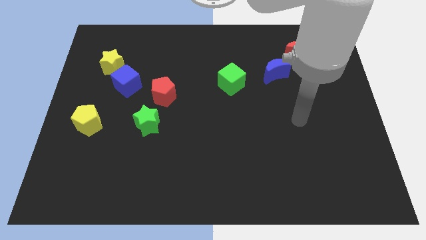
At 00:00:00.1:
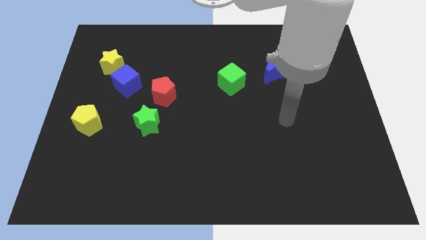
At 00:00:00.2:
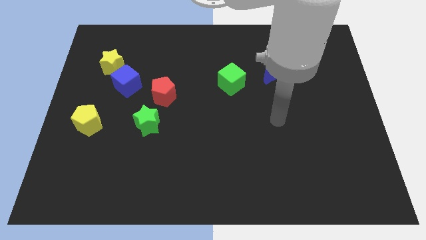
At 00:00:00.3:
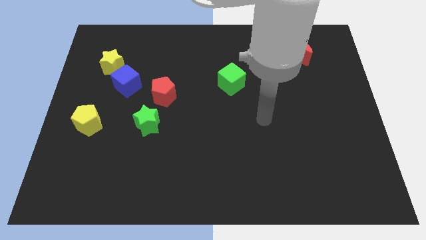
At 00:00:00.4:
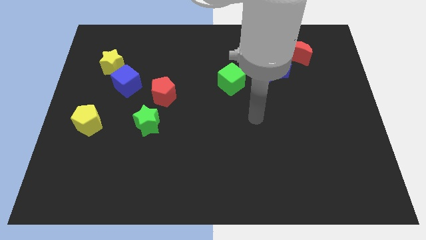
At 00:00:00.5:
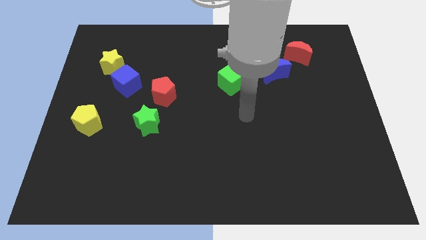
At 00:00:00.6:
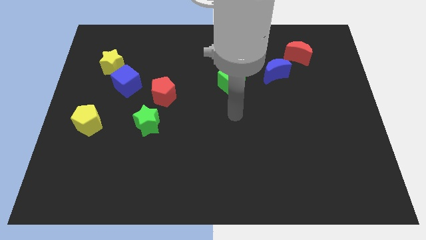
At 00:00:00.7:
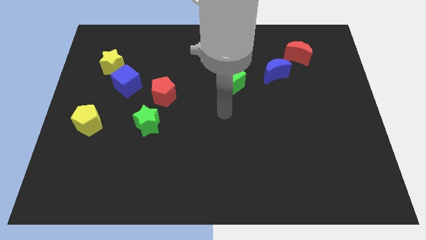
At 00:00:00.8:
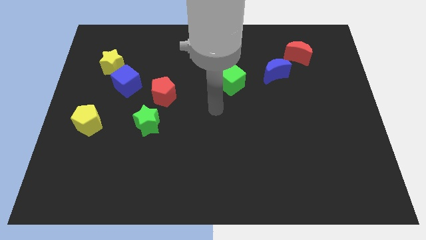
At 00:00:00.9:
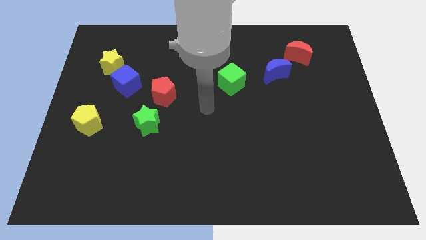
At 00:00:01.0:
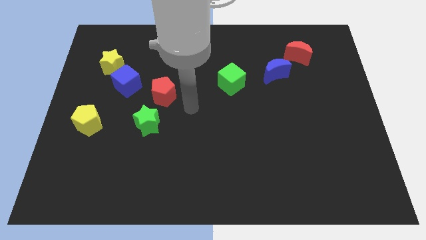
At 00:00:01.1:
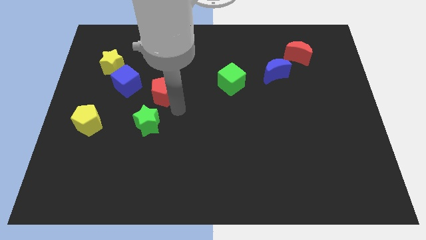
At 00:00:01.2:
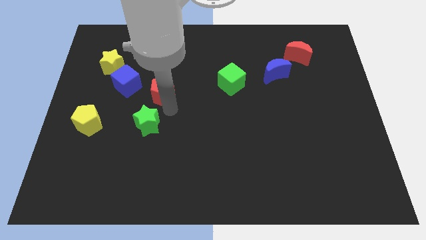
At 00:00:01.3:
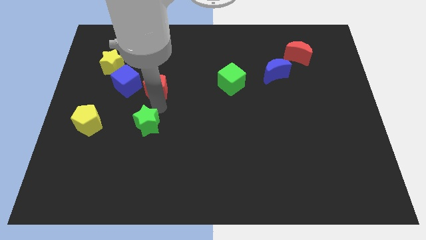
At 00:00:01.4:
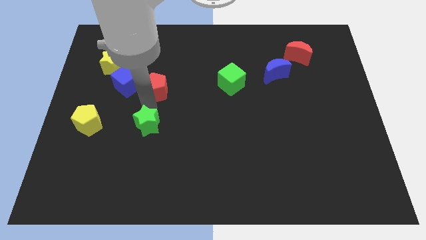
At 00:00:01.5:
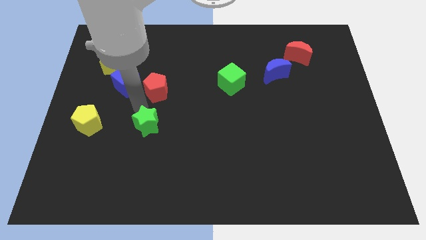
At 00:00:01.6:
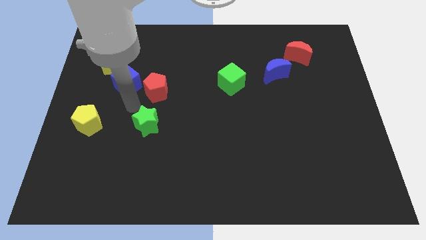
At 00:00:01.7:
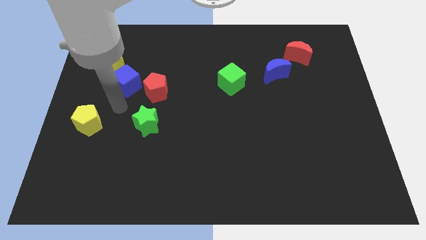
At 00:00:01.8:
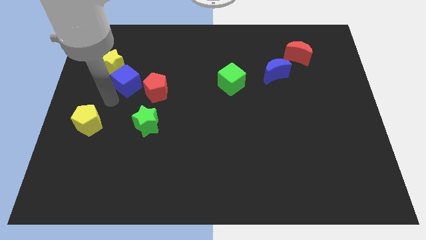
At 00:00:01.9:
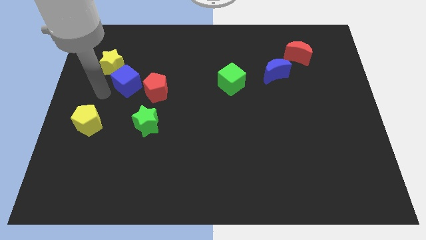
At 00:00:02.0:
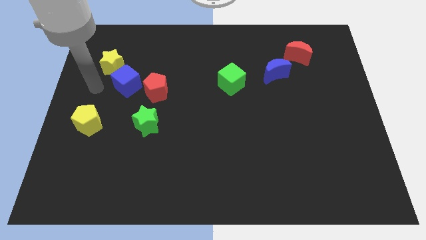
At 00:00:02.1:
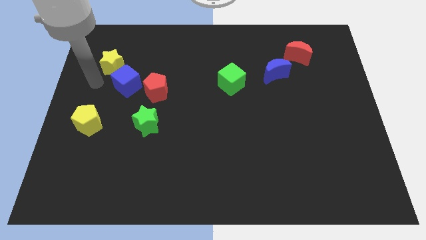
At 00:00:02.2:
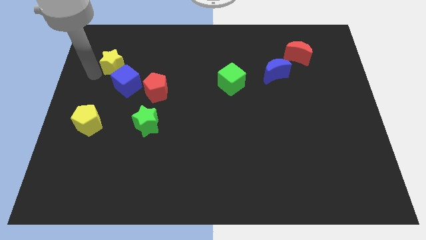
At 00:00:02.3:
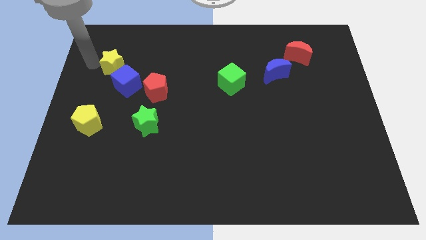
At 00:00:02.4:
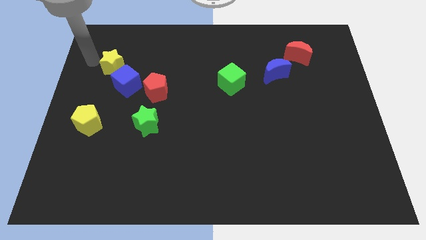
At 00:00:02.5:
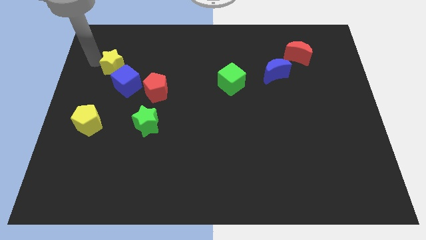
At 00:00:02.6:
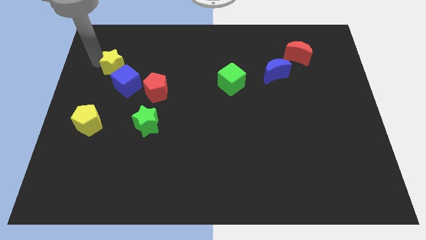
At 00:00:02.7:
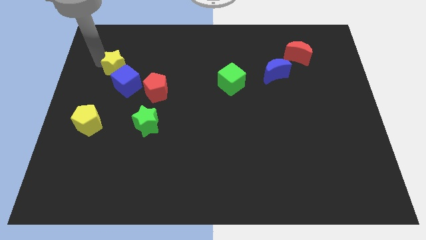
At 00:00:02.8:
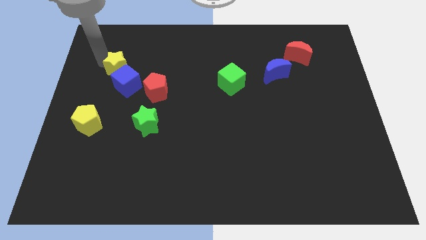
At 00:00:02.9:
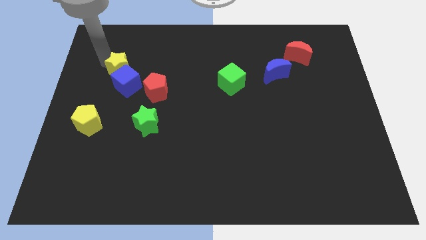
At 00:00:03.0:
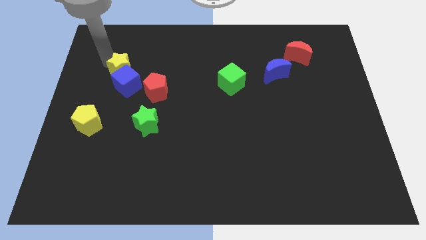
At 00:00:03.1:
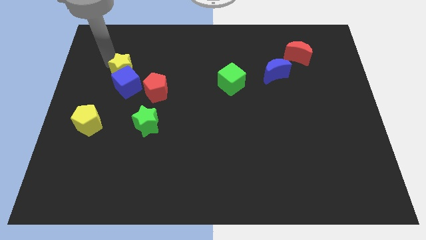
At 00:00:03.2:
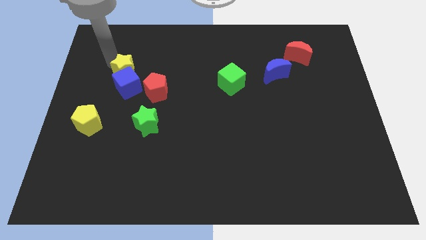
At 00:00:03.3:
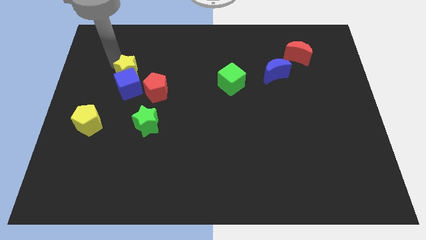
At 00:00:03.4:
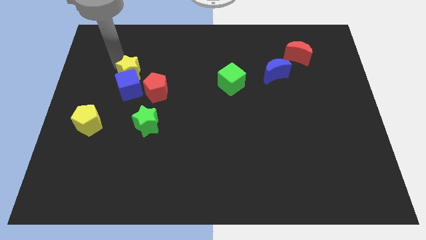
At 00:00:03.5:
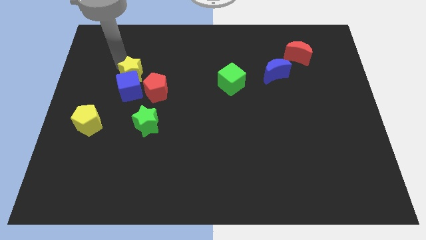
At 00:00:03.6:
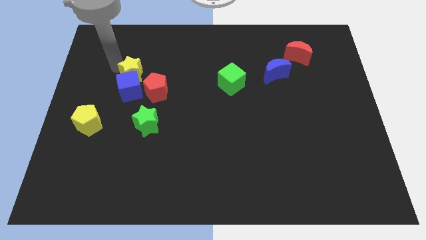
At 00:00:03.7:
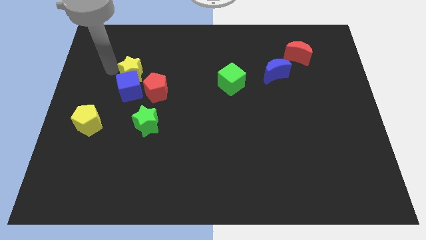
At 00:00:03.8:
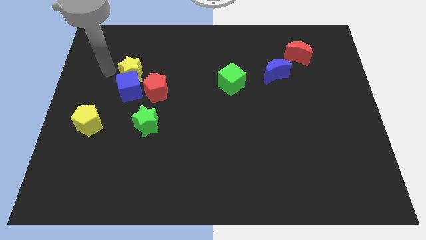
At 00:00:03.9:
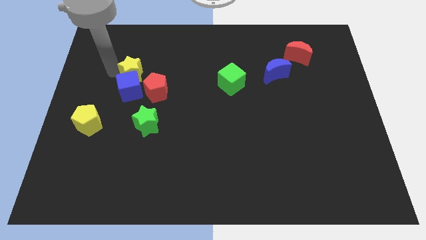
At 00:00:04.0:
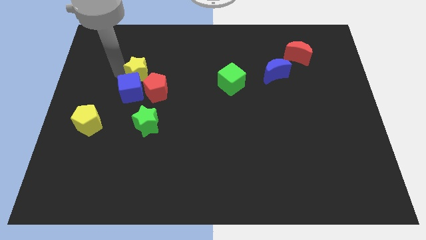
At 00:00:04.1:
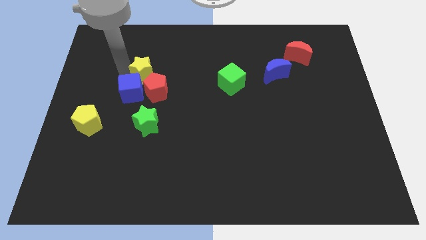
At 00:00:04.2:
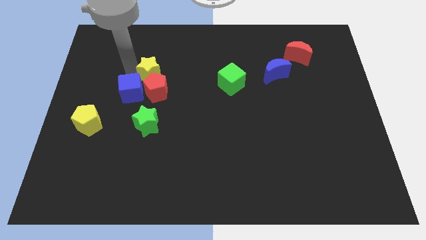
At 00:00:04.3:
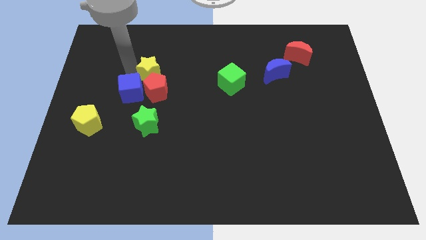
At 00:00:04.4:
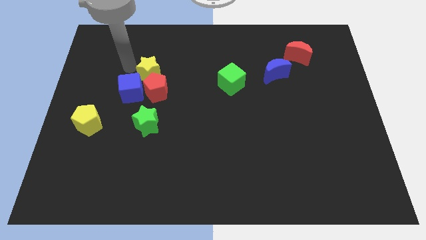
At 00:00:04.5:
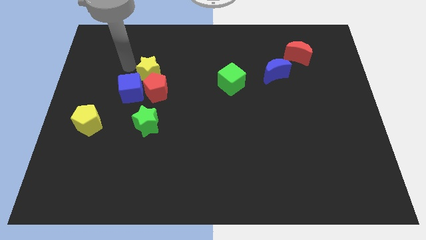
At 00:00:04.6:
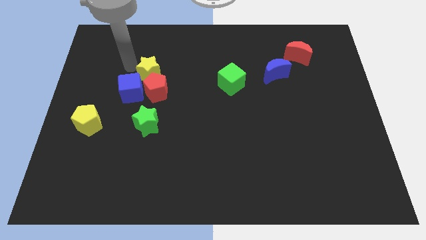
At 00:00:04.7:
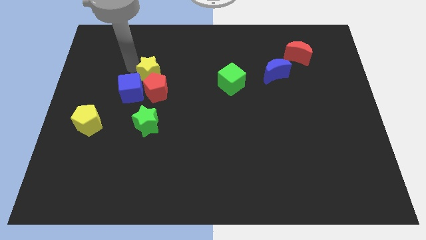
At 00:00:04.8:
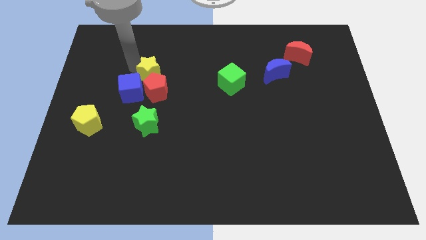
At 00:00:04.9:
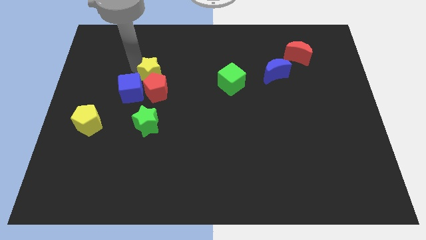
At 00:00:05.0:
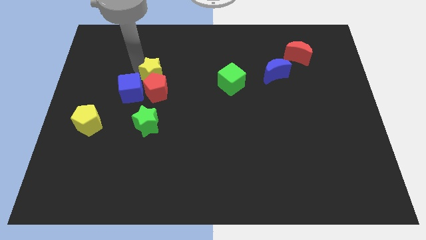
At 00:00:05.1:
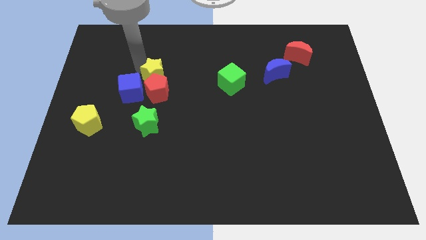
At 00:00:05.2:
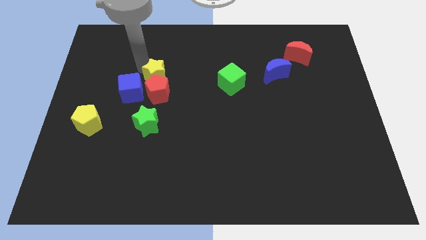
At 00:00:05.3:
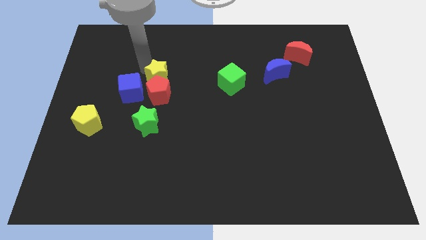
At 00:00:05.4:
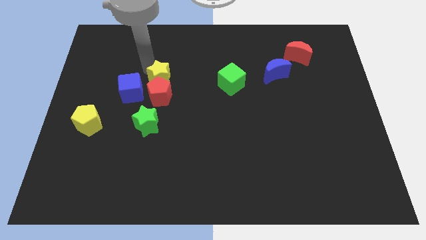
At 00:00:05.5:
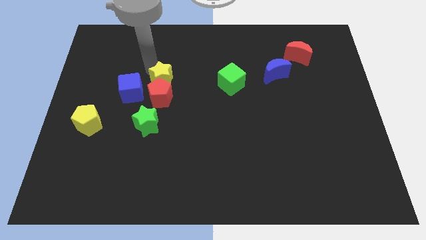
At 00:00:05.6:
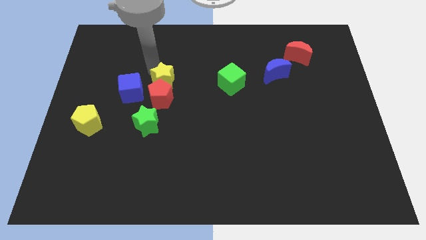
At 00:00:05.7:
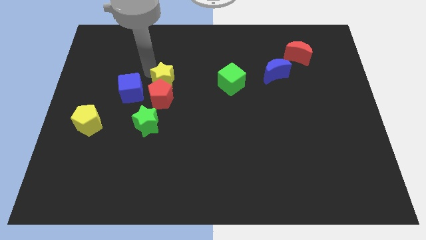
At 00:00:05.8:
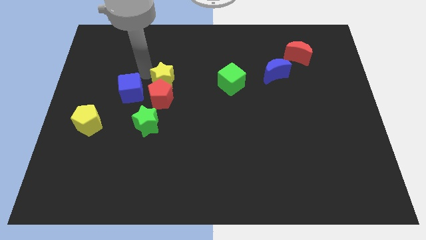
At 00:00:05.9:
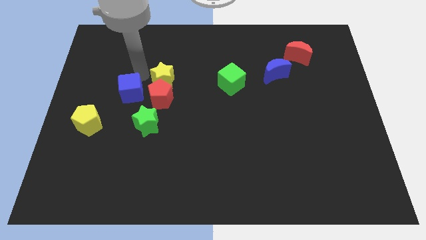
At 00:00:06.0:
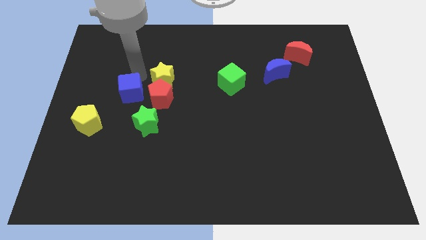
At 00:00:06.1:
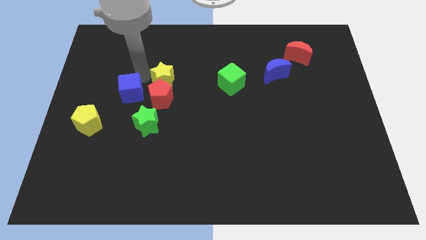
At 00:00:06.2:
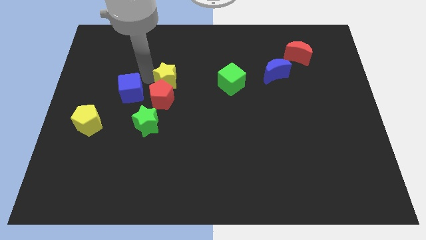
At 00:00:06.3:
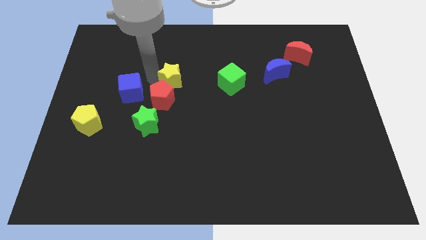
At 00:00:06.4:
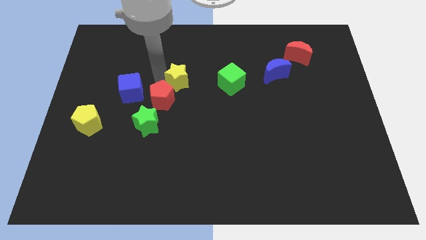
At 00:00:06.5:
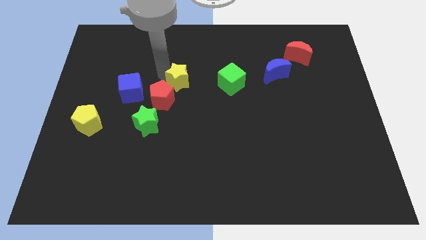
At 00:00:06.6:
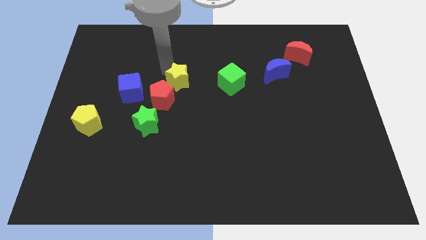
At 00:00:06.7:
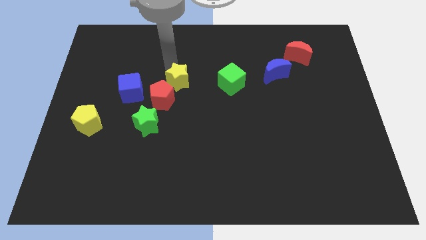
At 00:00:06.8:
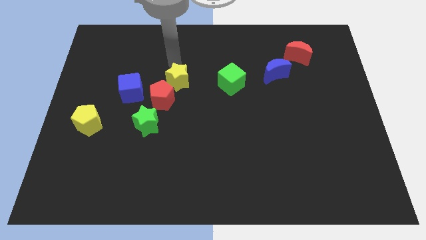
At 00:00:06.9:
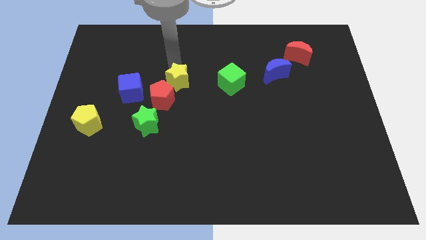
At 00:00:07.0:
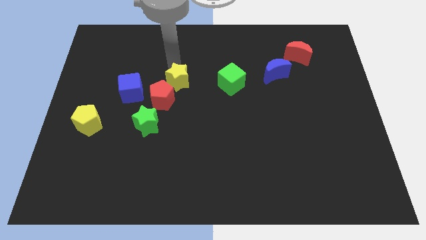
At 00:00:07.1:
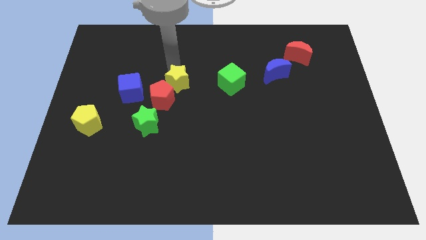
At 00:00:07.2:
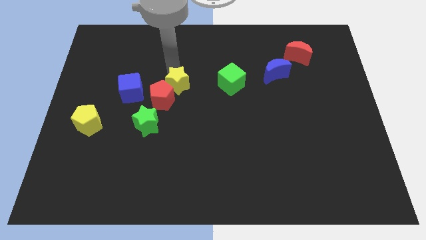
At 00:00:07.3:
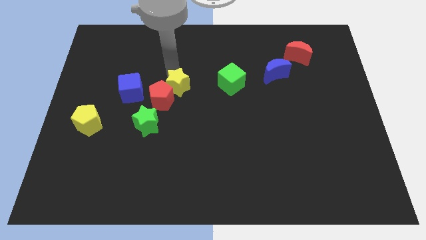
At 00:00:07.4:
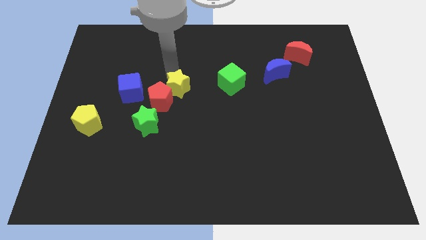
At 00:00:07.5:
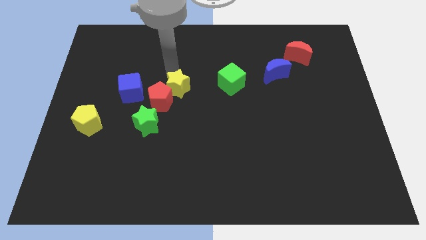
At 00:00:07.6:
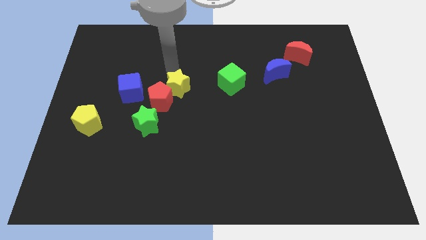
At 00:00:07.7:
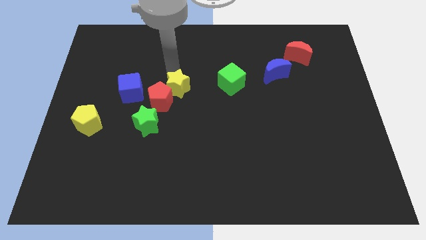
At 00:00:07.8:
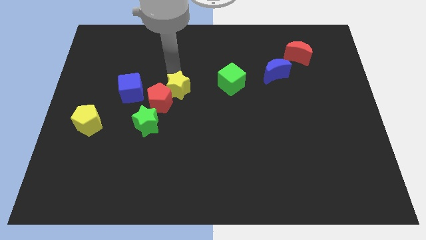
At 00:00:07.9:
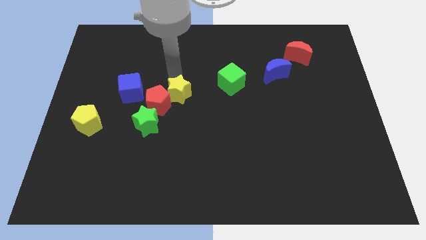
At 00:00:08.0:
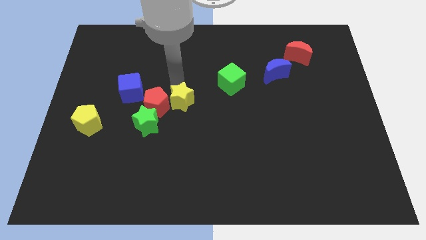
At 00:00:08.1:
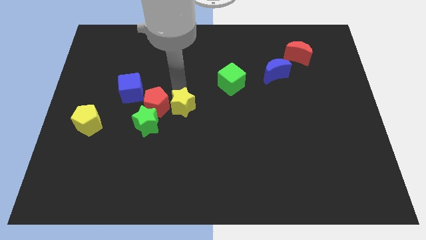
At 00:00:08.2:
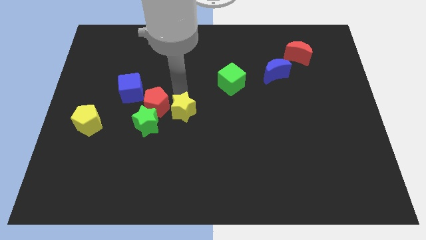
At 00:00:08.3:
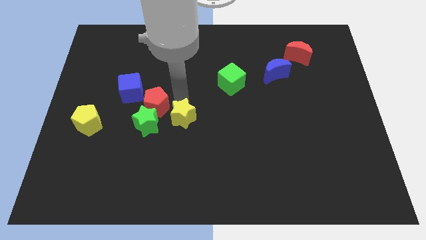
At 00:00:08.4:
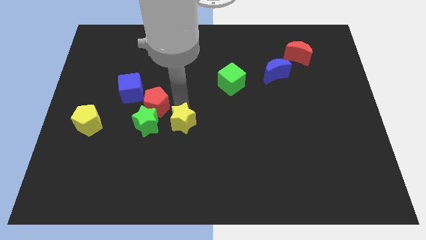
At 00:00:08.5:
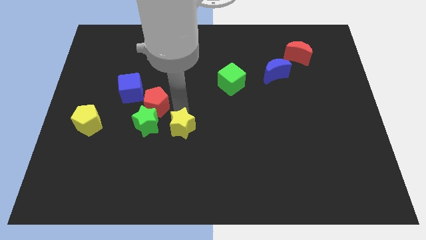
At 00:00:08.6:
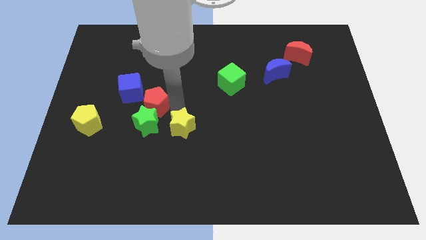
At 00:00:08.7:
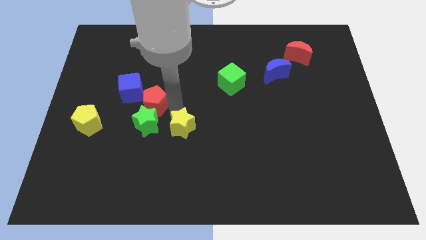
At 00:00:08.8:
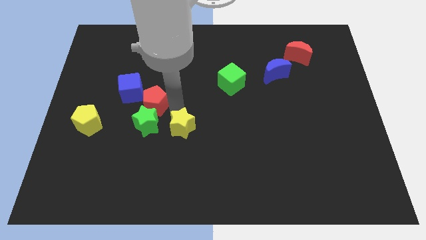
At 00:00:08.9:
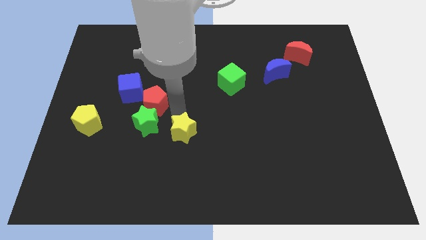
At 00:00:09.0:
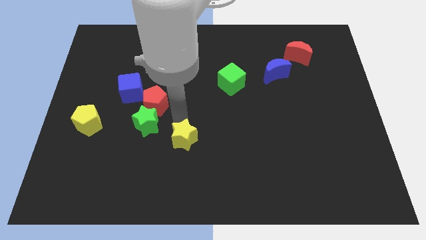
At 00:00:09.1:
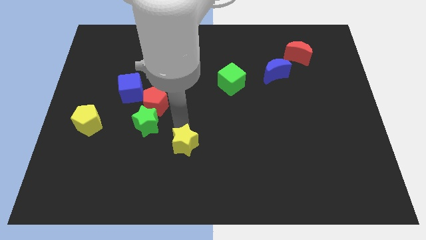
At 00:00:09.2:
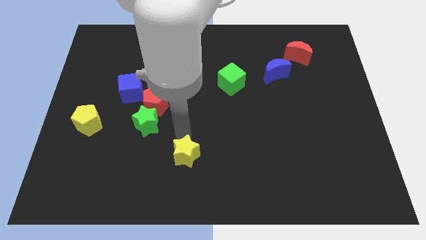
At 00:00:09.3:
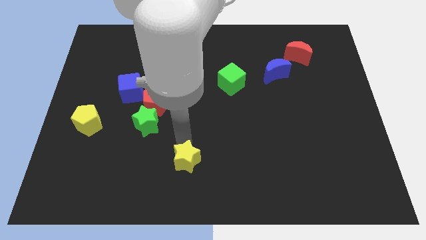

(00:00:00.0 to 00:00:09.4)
slide the yellow star to the bottom side
